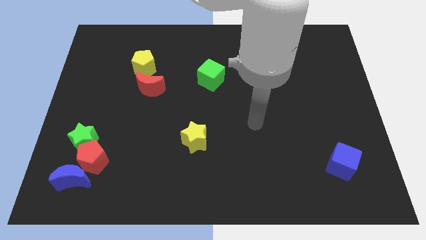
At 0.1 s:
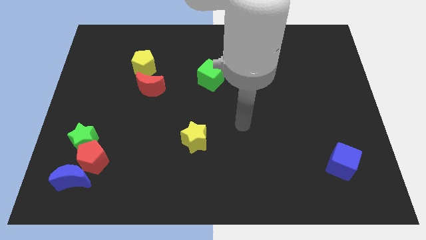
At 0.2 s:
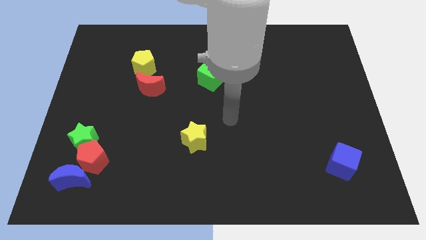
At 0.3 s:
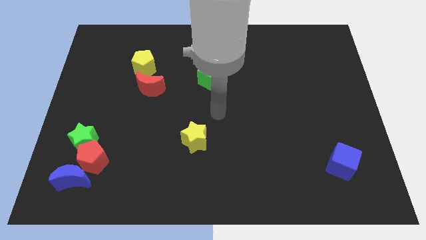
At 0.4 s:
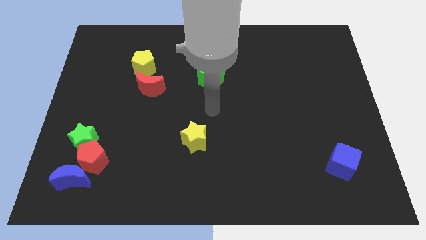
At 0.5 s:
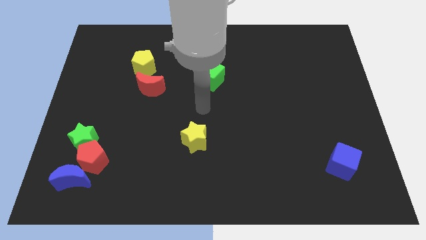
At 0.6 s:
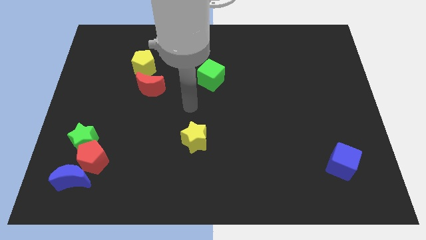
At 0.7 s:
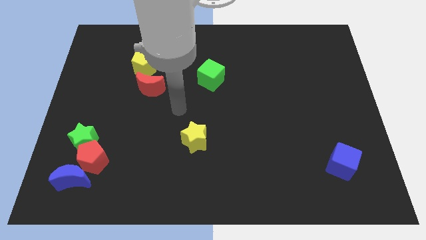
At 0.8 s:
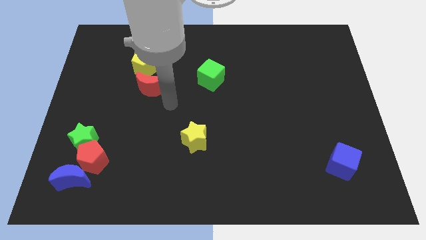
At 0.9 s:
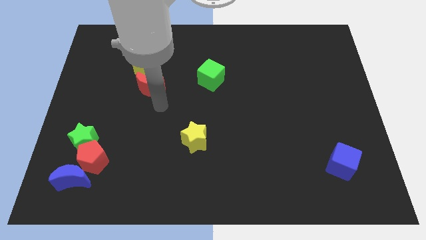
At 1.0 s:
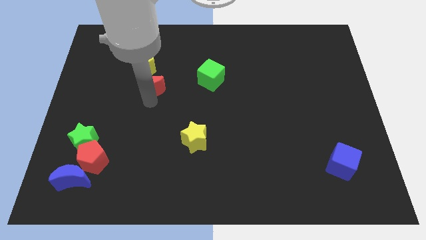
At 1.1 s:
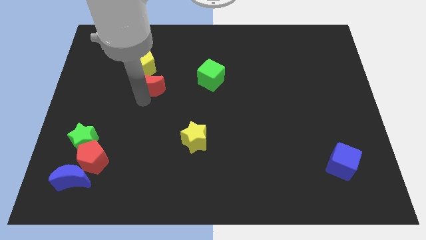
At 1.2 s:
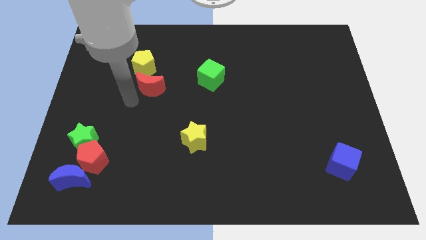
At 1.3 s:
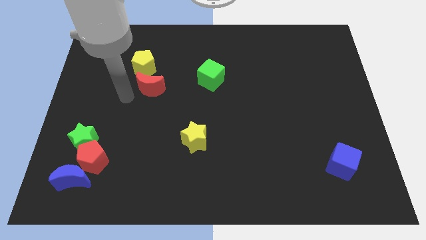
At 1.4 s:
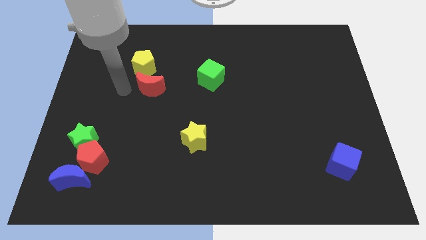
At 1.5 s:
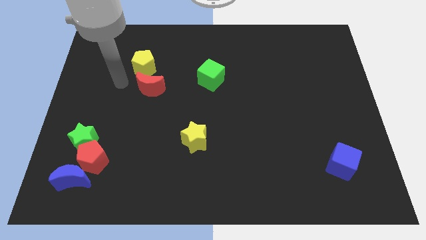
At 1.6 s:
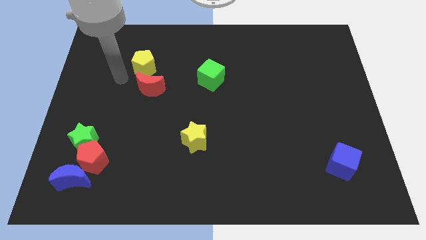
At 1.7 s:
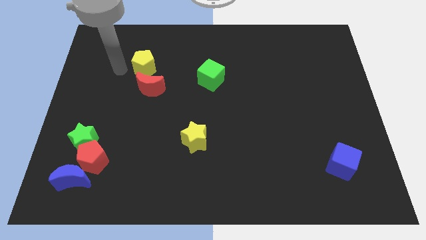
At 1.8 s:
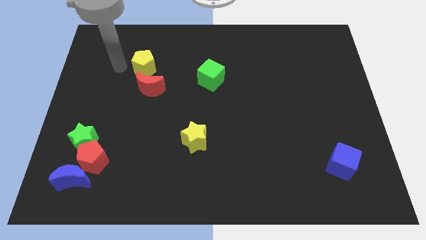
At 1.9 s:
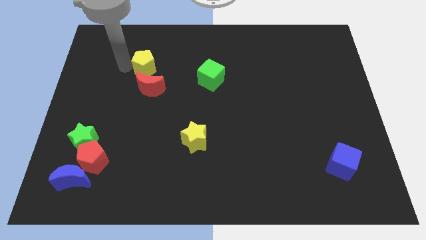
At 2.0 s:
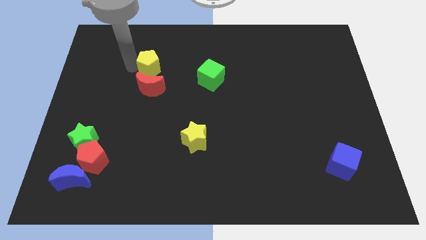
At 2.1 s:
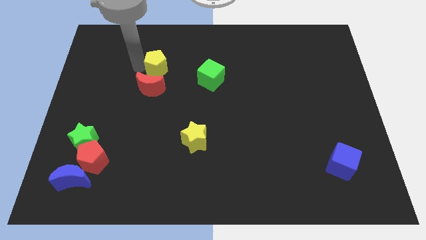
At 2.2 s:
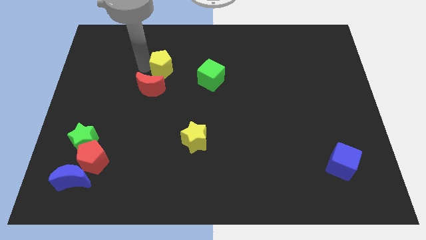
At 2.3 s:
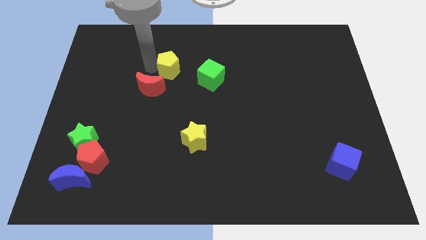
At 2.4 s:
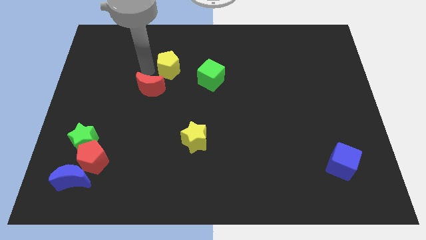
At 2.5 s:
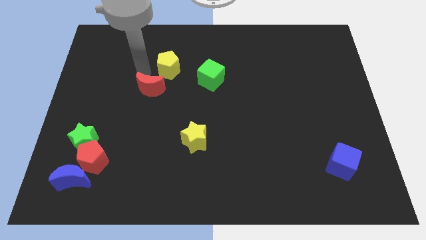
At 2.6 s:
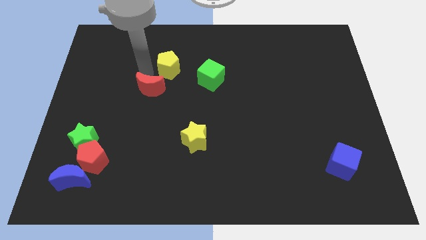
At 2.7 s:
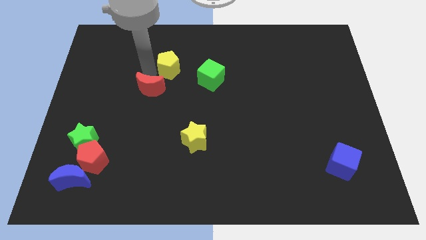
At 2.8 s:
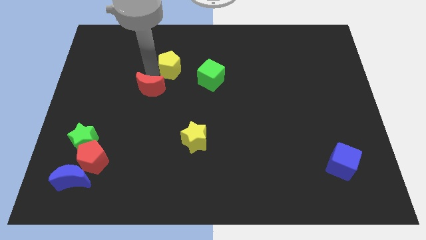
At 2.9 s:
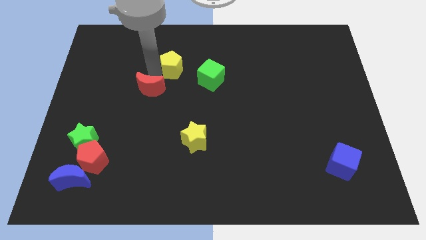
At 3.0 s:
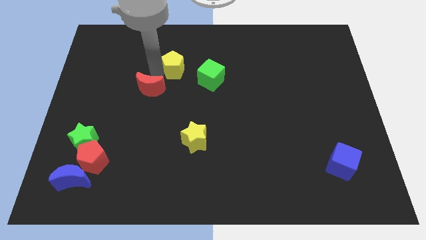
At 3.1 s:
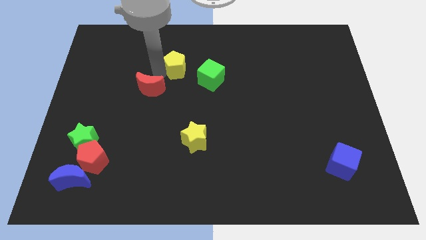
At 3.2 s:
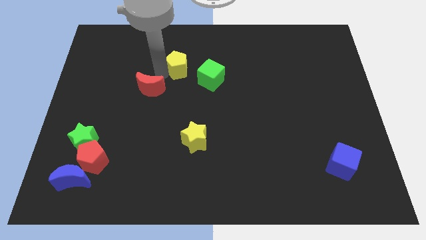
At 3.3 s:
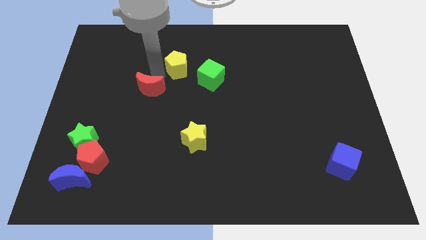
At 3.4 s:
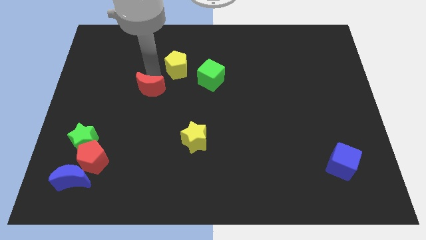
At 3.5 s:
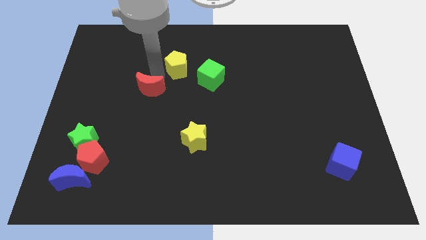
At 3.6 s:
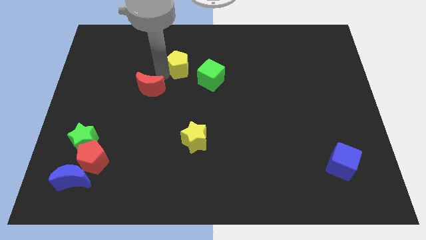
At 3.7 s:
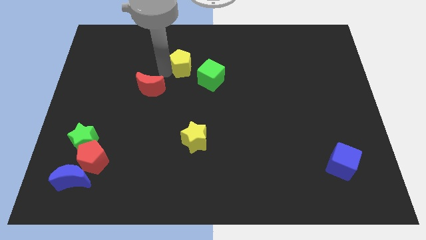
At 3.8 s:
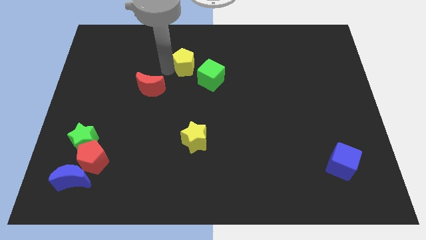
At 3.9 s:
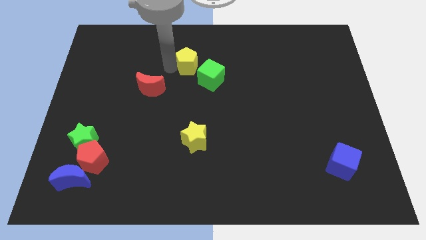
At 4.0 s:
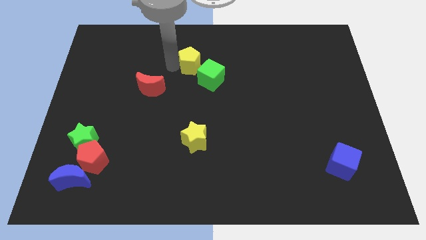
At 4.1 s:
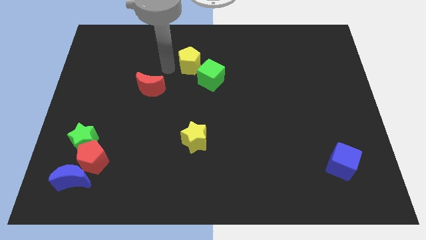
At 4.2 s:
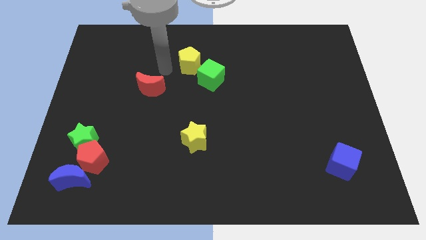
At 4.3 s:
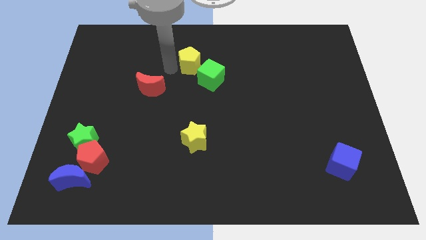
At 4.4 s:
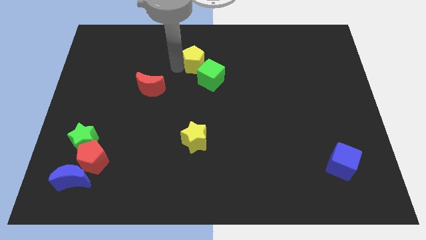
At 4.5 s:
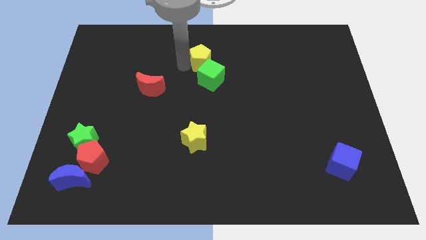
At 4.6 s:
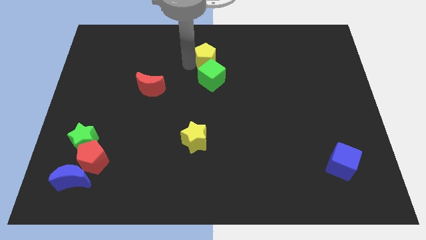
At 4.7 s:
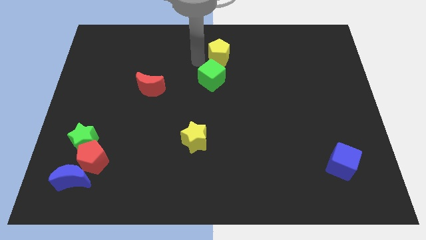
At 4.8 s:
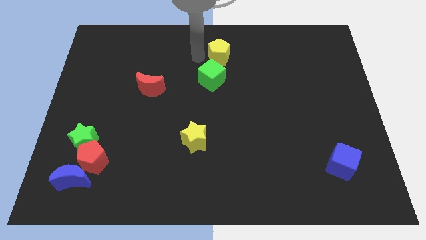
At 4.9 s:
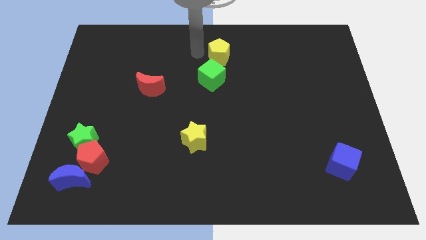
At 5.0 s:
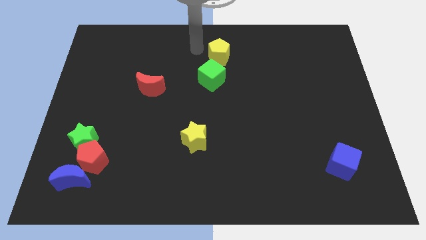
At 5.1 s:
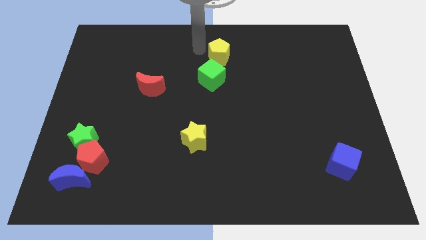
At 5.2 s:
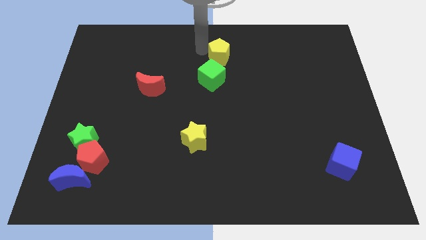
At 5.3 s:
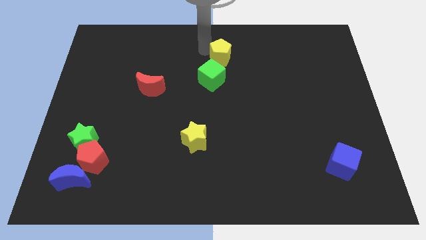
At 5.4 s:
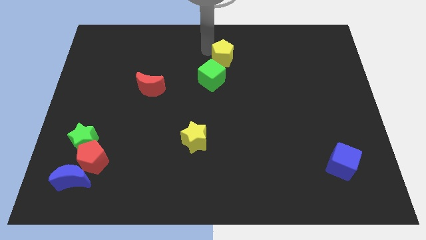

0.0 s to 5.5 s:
slide the yellow pentagon right

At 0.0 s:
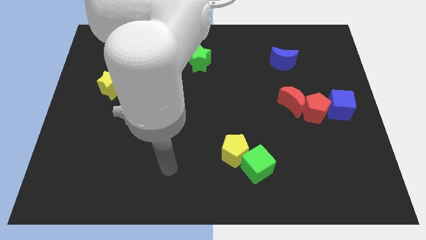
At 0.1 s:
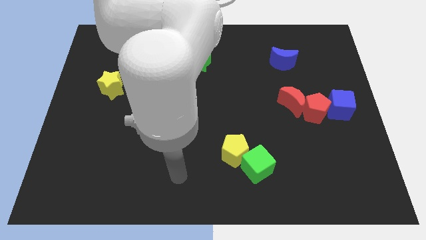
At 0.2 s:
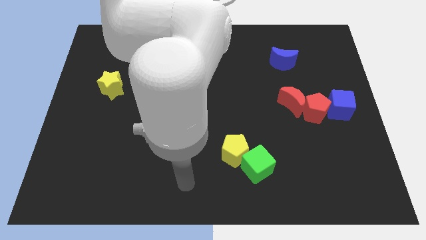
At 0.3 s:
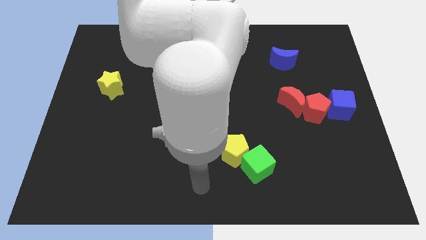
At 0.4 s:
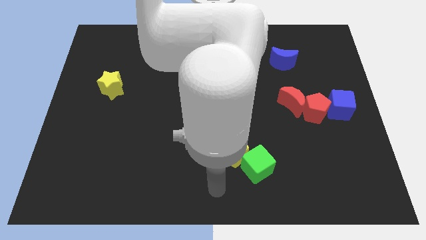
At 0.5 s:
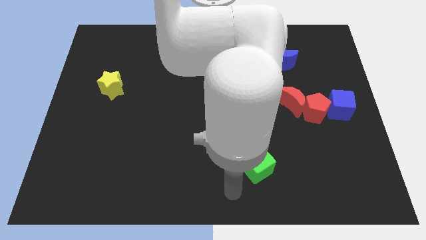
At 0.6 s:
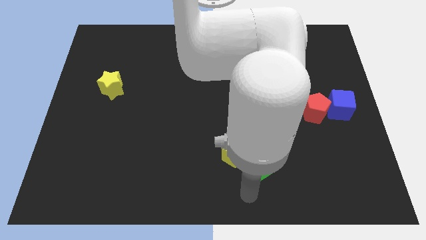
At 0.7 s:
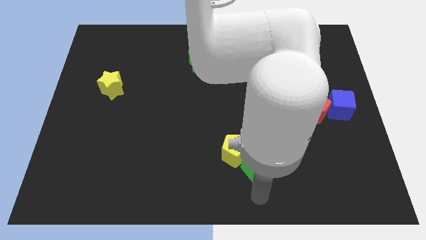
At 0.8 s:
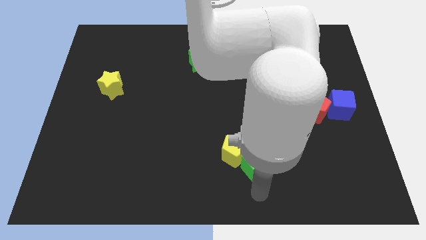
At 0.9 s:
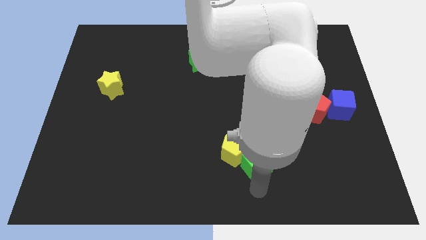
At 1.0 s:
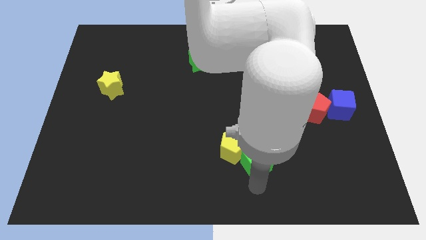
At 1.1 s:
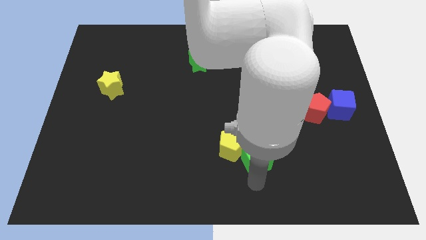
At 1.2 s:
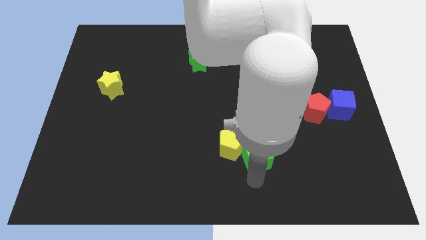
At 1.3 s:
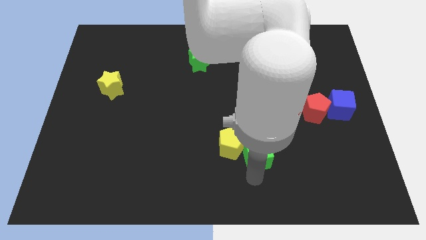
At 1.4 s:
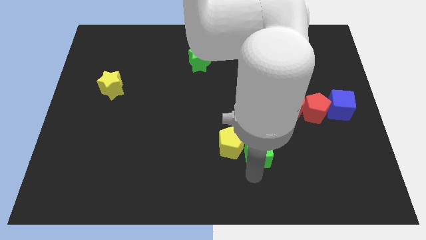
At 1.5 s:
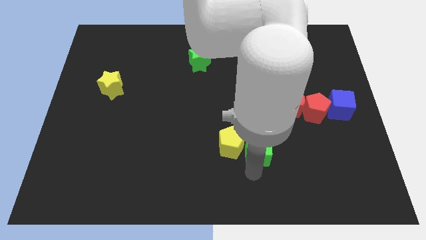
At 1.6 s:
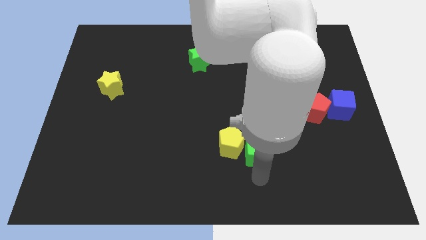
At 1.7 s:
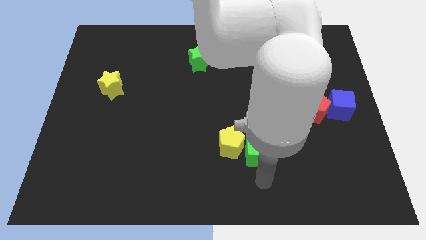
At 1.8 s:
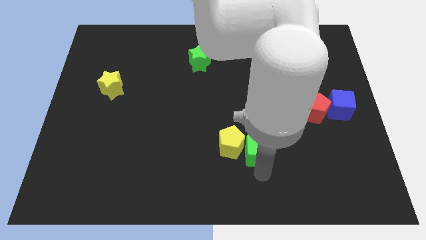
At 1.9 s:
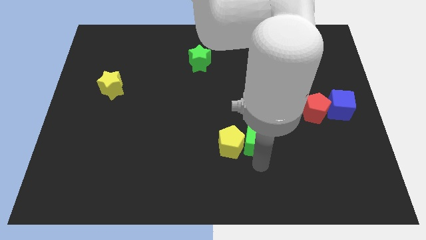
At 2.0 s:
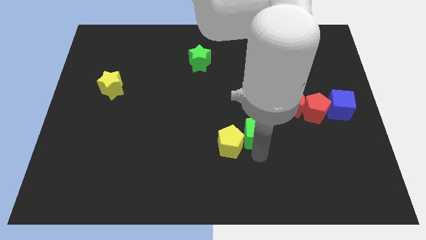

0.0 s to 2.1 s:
slide the green cube a little bit up

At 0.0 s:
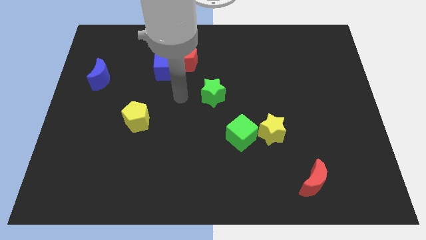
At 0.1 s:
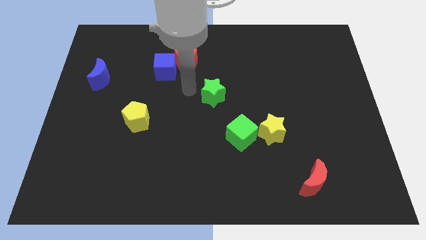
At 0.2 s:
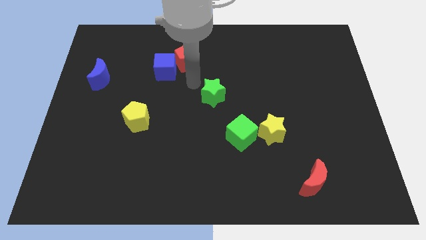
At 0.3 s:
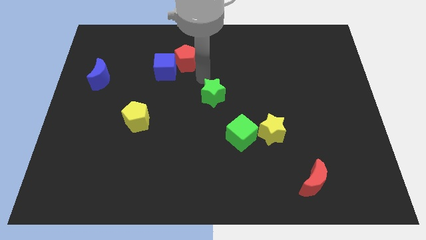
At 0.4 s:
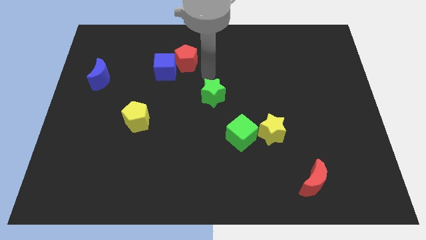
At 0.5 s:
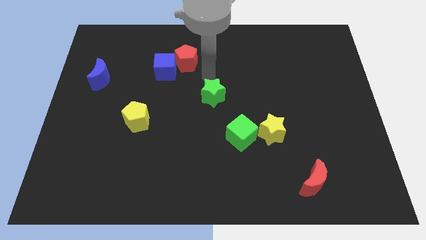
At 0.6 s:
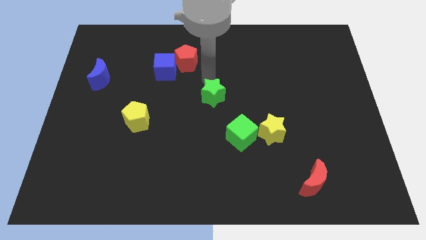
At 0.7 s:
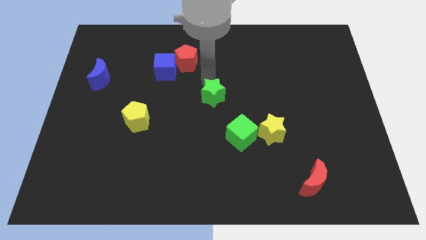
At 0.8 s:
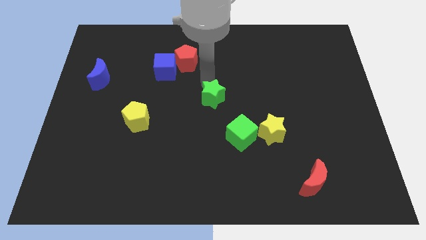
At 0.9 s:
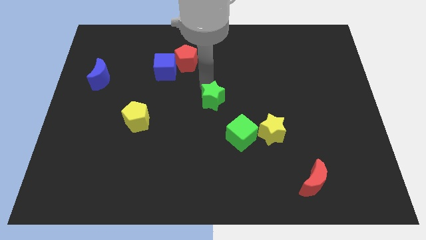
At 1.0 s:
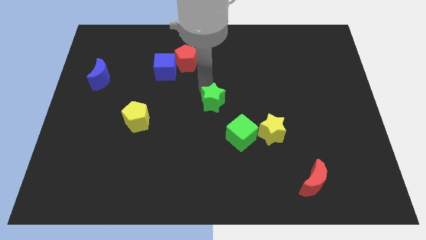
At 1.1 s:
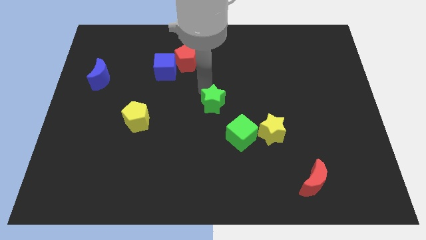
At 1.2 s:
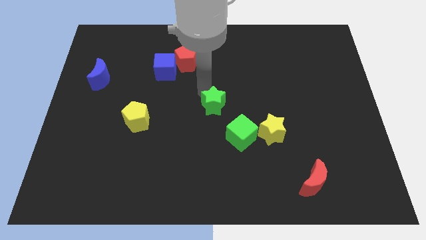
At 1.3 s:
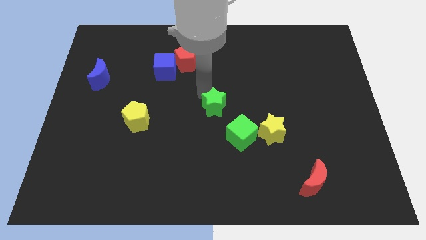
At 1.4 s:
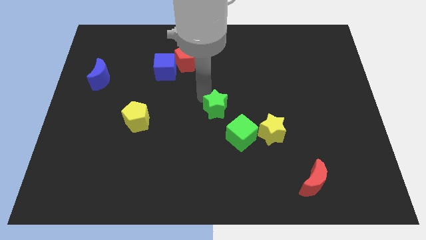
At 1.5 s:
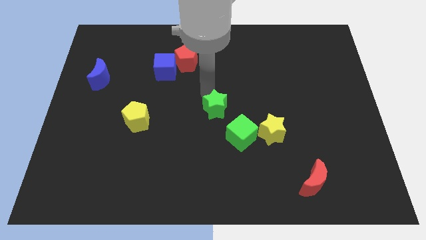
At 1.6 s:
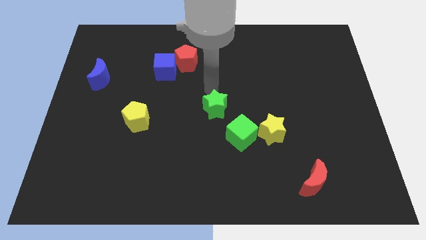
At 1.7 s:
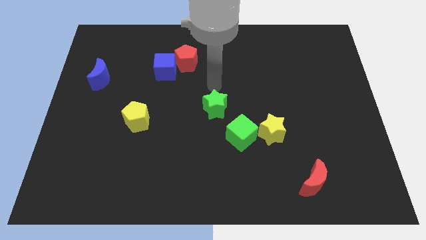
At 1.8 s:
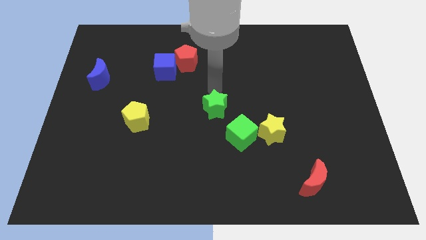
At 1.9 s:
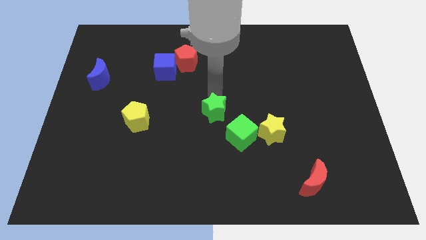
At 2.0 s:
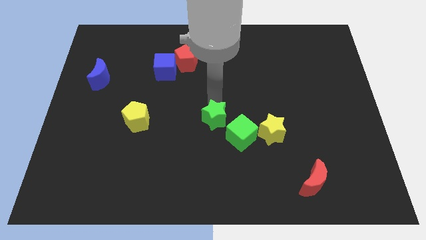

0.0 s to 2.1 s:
move the green star a little bit down
